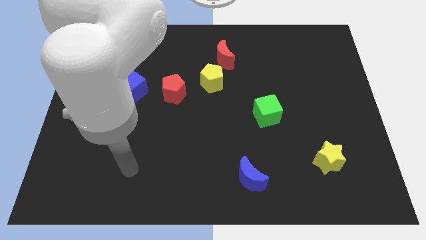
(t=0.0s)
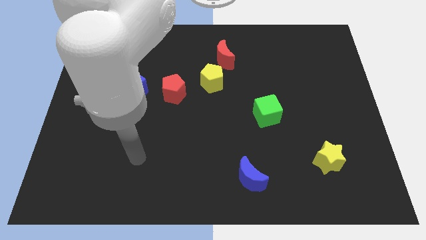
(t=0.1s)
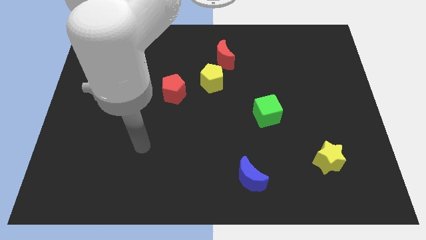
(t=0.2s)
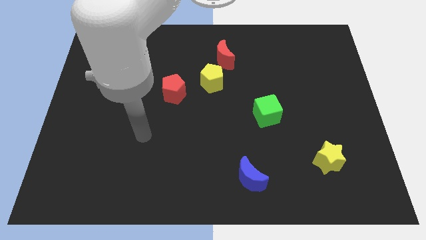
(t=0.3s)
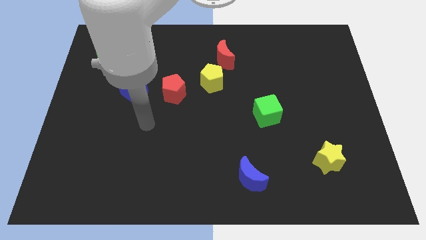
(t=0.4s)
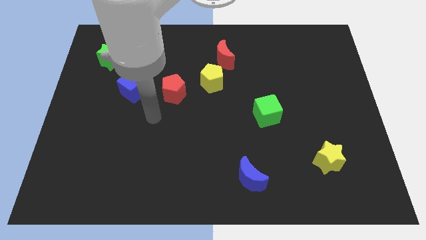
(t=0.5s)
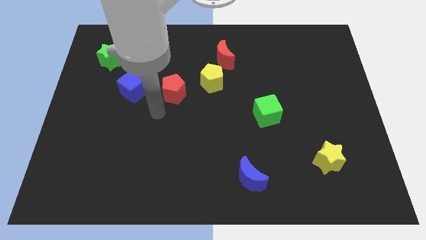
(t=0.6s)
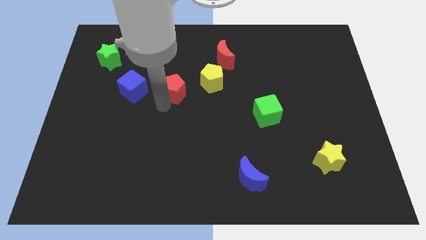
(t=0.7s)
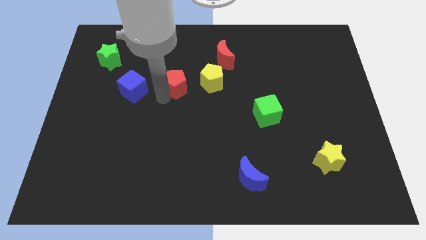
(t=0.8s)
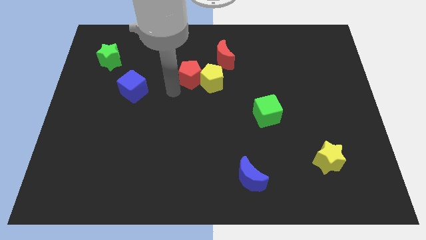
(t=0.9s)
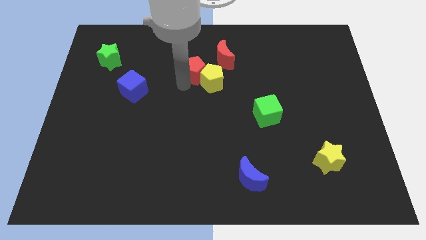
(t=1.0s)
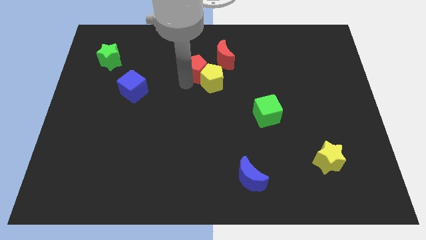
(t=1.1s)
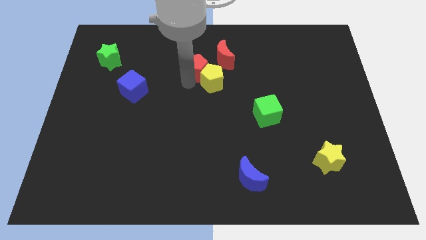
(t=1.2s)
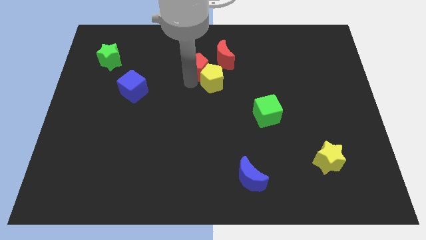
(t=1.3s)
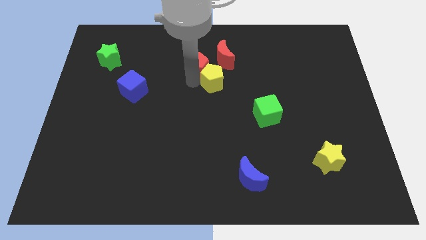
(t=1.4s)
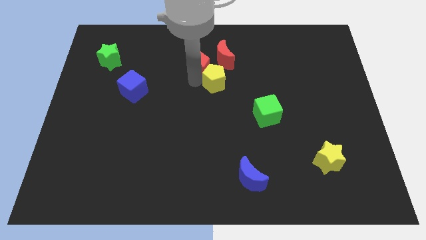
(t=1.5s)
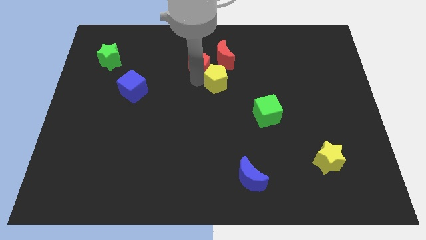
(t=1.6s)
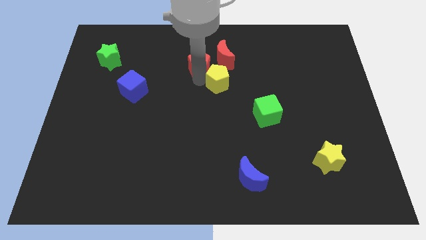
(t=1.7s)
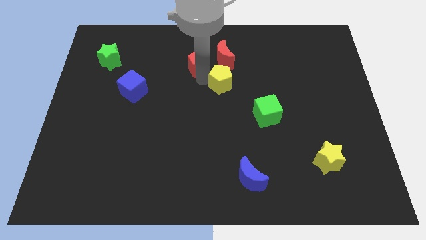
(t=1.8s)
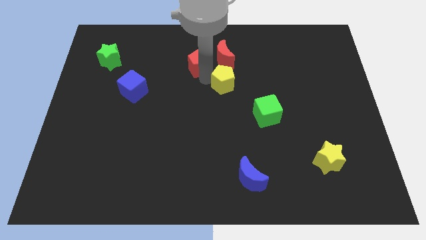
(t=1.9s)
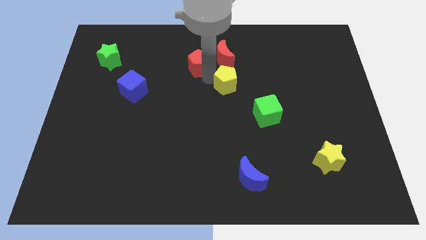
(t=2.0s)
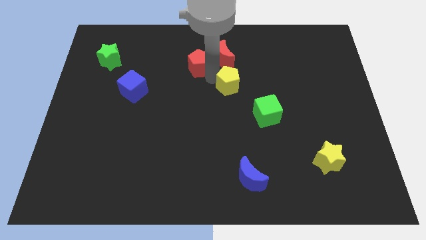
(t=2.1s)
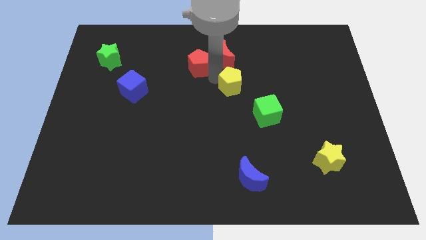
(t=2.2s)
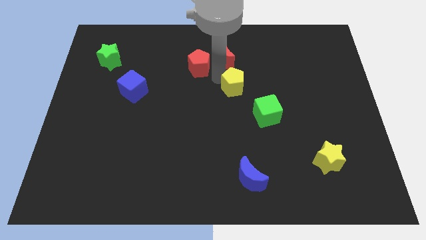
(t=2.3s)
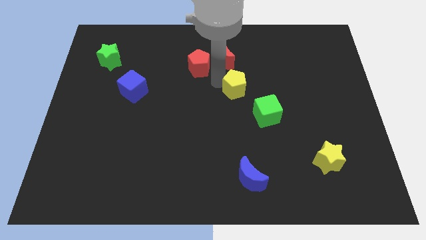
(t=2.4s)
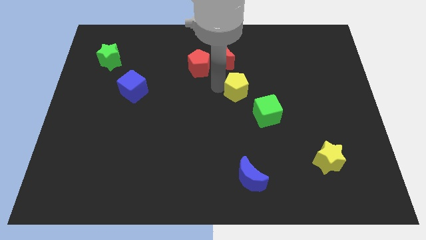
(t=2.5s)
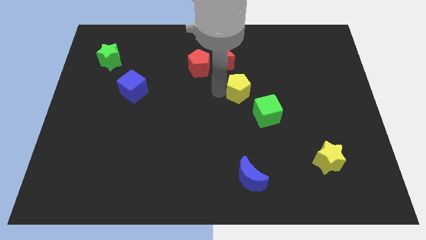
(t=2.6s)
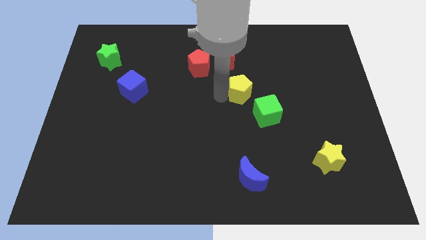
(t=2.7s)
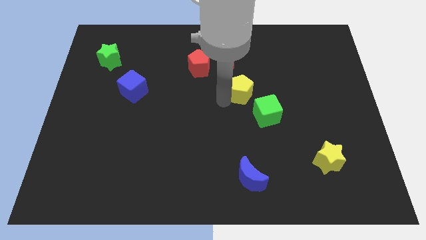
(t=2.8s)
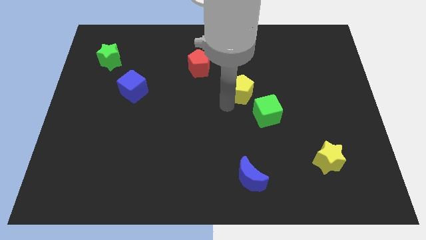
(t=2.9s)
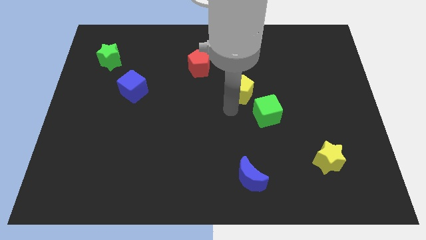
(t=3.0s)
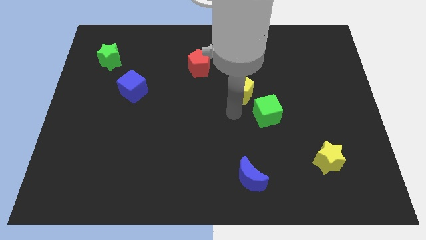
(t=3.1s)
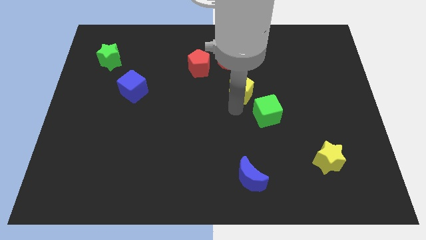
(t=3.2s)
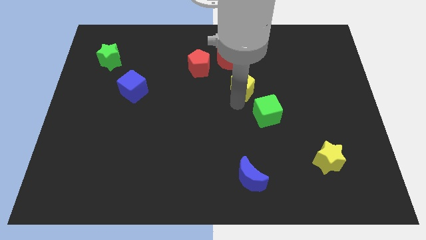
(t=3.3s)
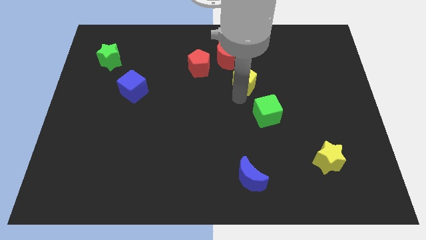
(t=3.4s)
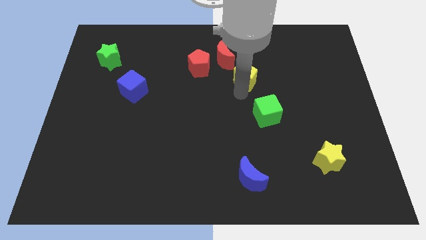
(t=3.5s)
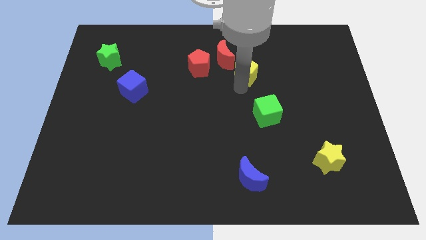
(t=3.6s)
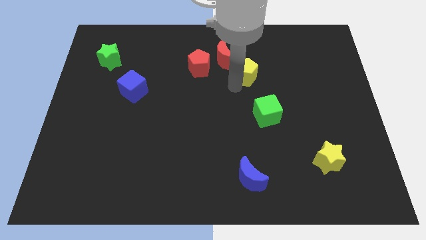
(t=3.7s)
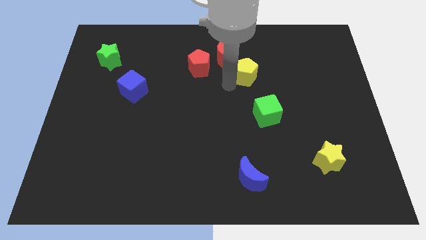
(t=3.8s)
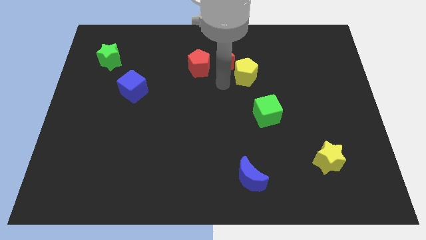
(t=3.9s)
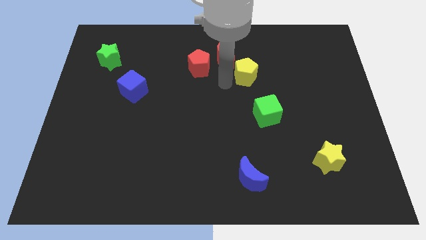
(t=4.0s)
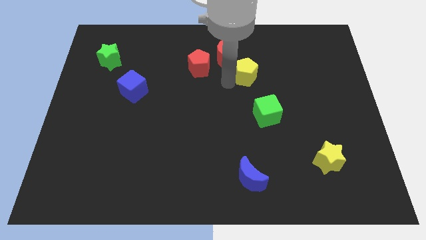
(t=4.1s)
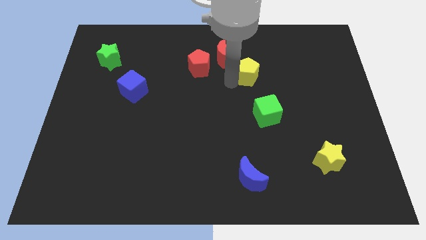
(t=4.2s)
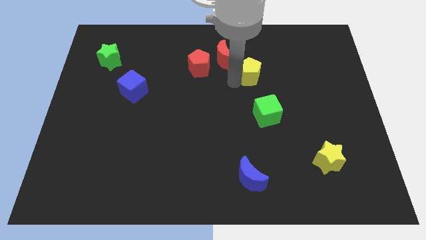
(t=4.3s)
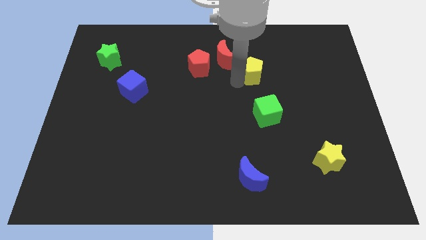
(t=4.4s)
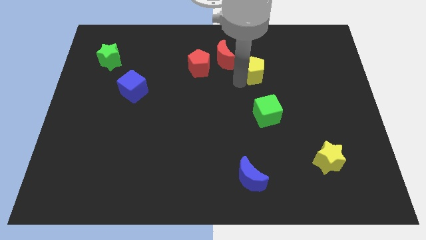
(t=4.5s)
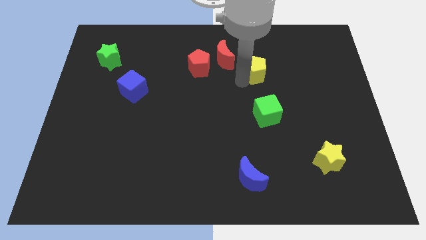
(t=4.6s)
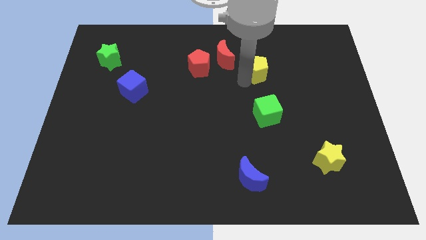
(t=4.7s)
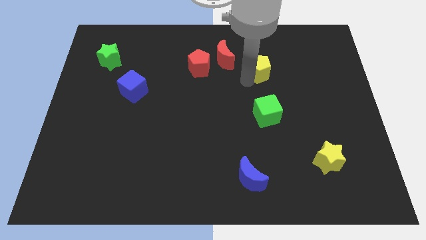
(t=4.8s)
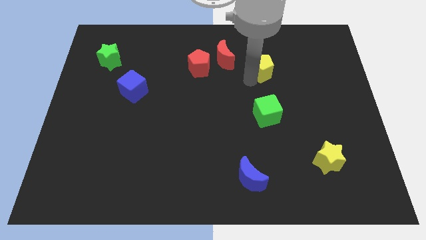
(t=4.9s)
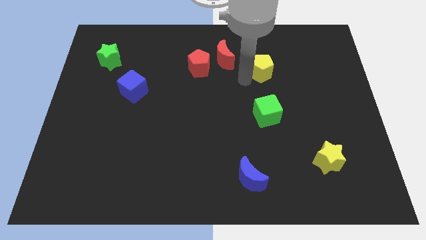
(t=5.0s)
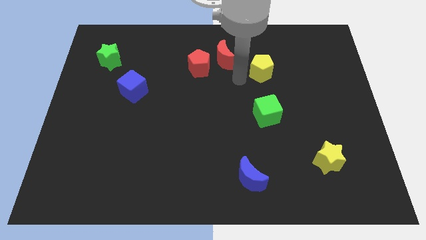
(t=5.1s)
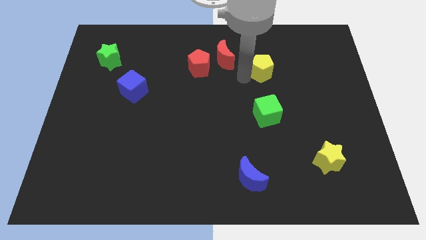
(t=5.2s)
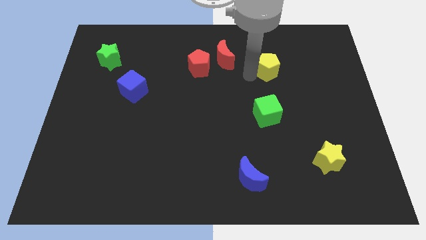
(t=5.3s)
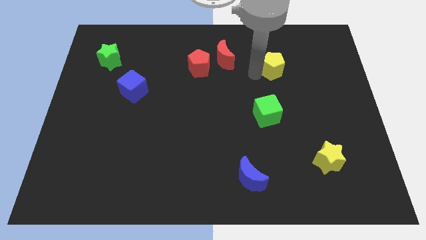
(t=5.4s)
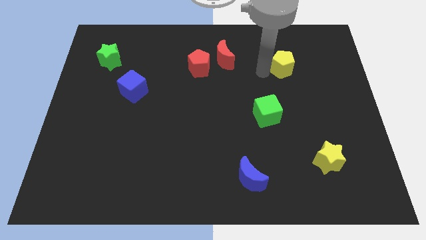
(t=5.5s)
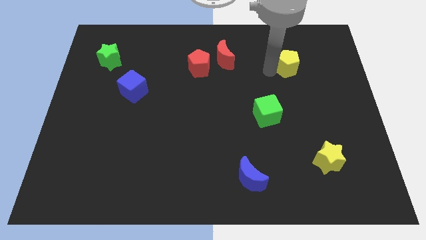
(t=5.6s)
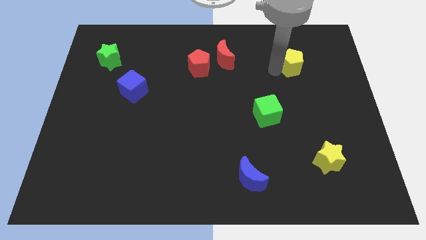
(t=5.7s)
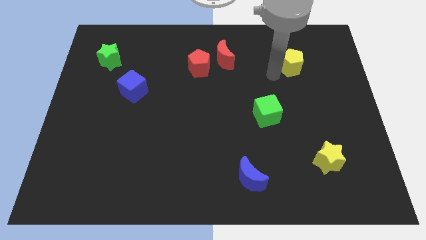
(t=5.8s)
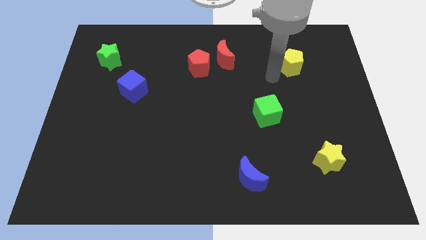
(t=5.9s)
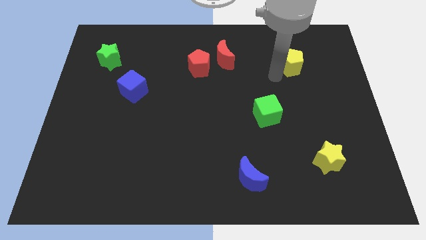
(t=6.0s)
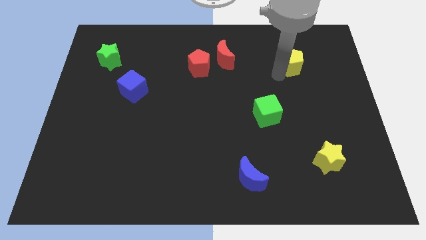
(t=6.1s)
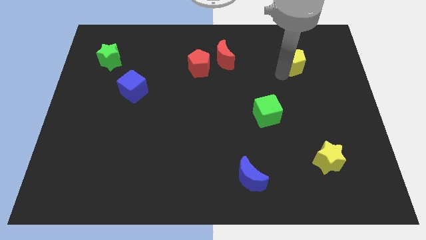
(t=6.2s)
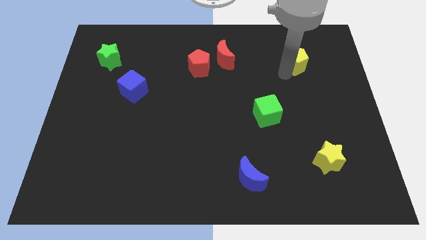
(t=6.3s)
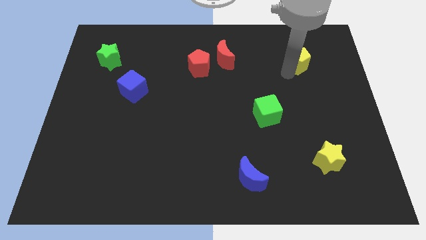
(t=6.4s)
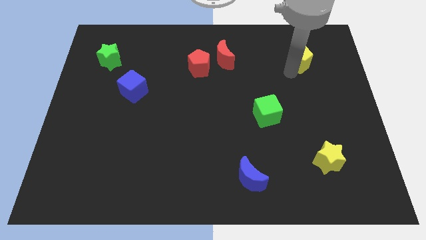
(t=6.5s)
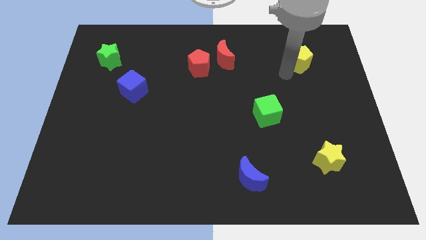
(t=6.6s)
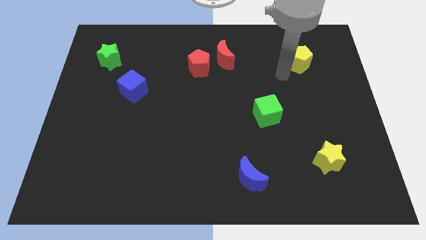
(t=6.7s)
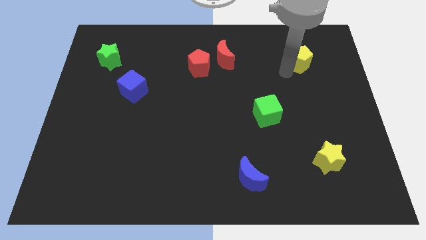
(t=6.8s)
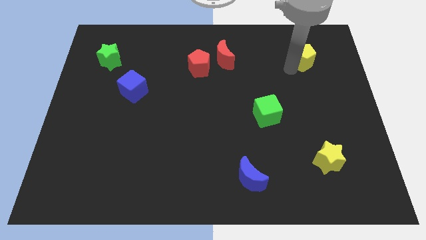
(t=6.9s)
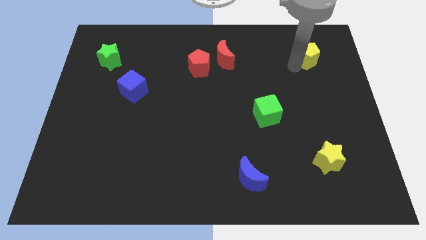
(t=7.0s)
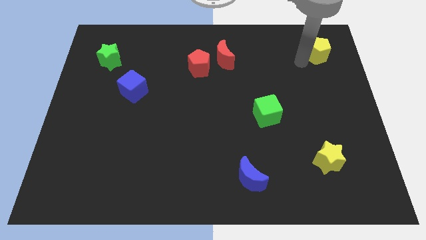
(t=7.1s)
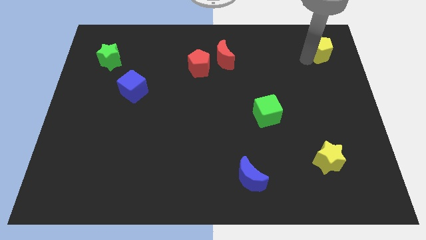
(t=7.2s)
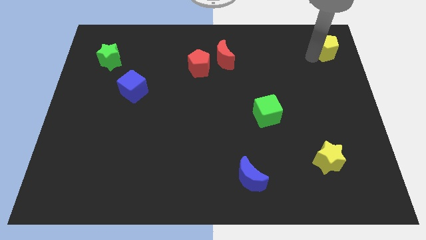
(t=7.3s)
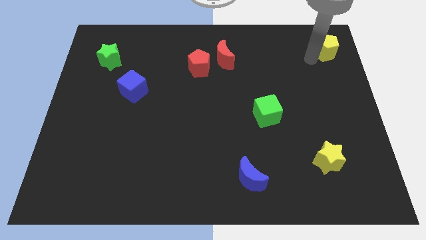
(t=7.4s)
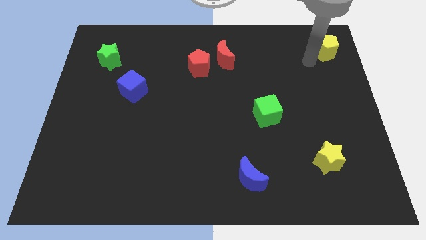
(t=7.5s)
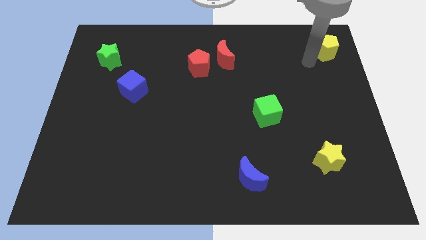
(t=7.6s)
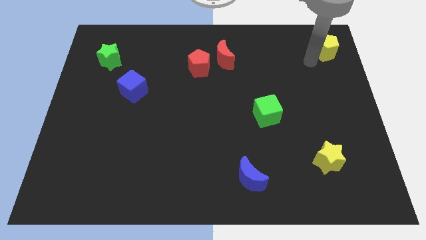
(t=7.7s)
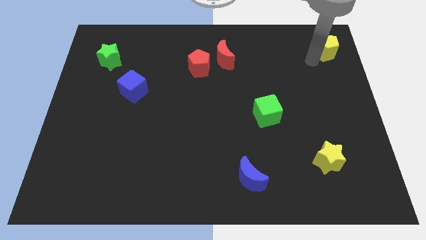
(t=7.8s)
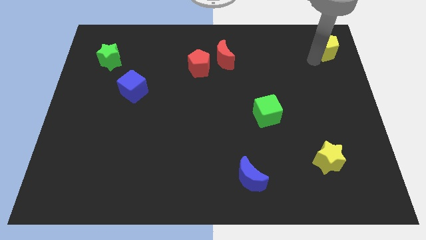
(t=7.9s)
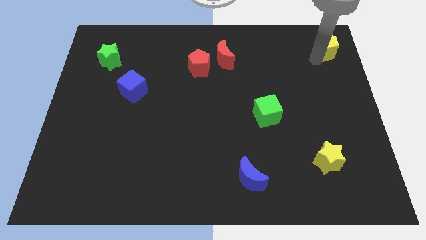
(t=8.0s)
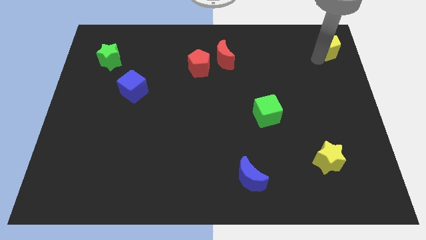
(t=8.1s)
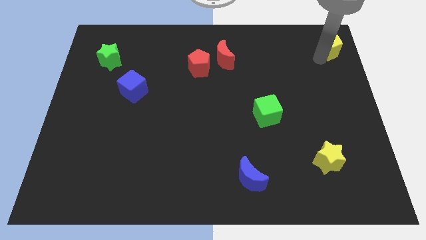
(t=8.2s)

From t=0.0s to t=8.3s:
slide the yellow pentagon to the top right corner
